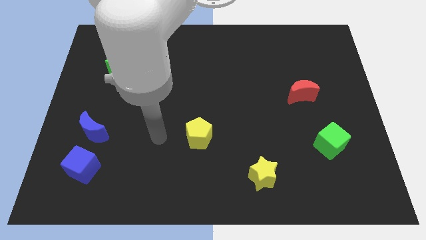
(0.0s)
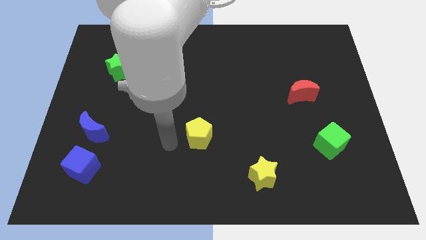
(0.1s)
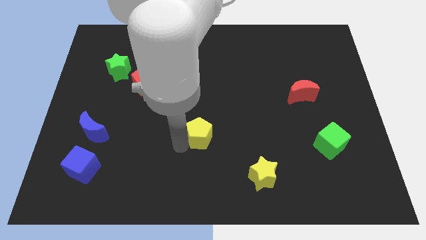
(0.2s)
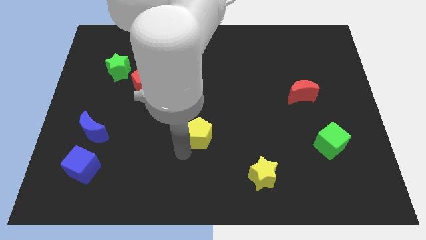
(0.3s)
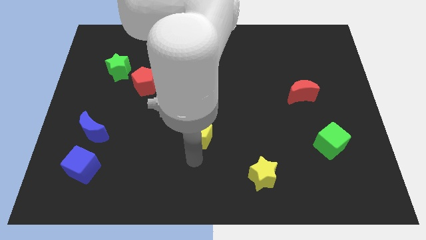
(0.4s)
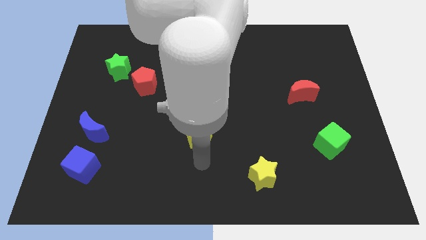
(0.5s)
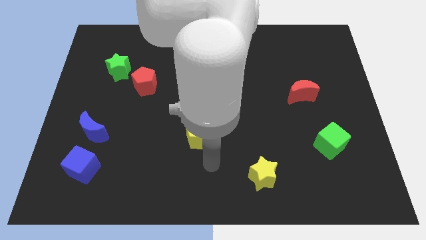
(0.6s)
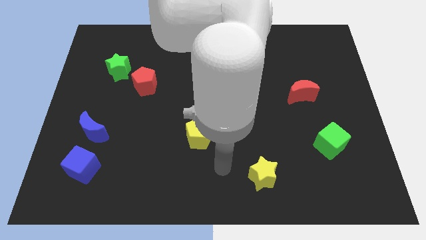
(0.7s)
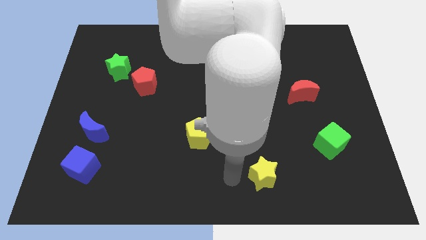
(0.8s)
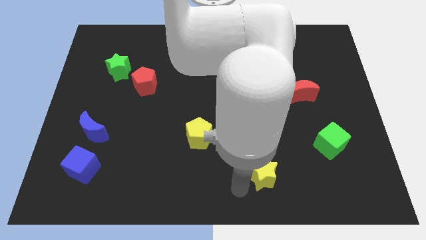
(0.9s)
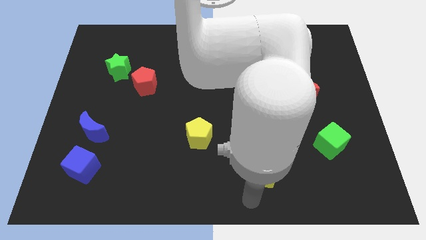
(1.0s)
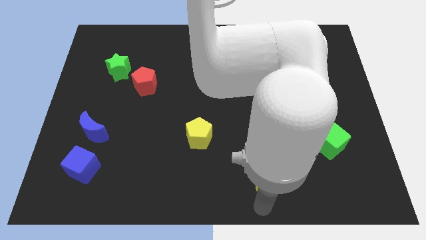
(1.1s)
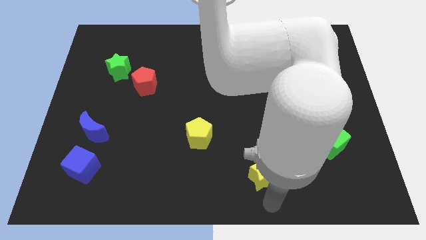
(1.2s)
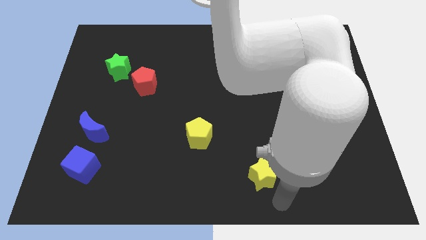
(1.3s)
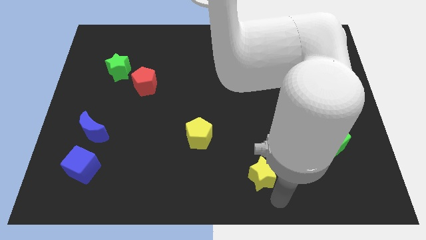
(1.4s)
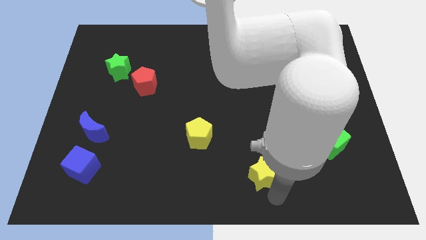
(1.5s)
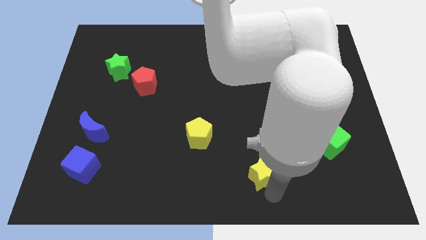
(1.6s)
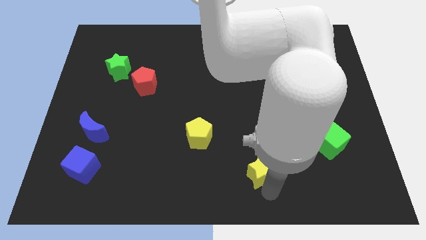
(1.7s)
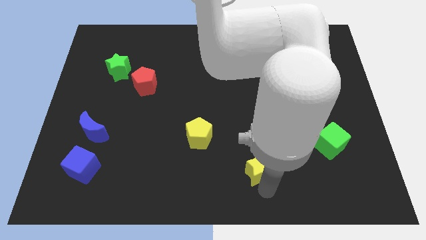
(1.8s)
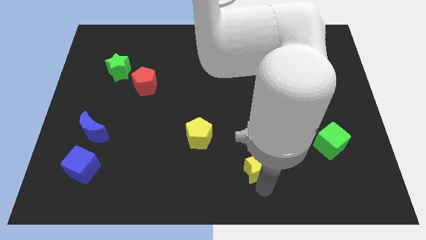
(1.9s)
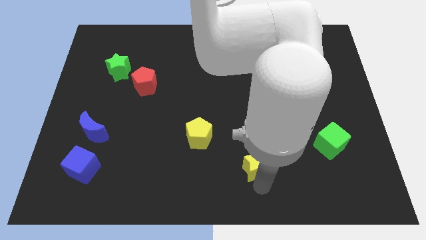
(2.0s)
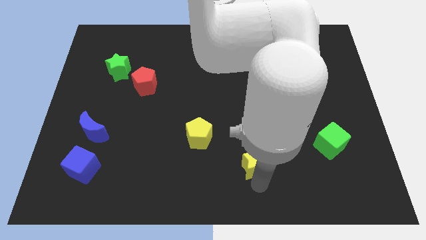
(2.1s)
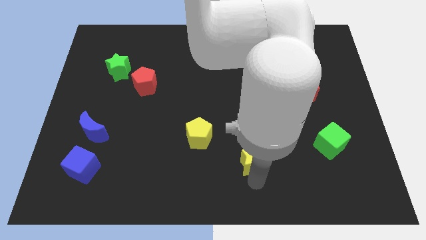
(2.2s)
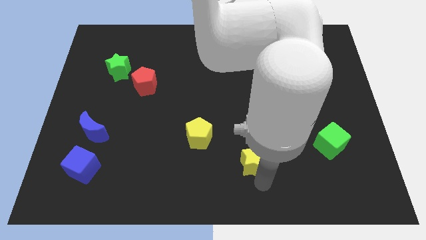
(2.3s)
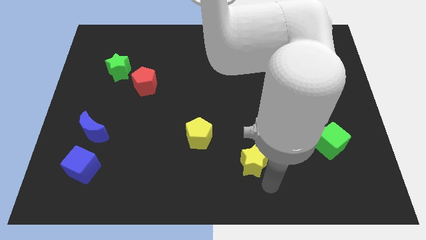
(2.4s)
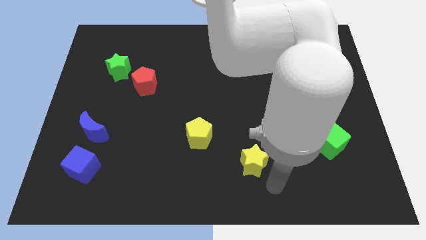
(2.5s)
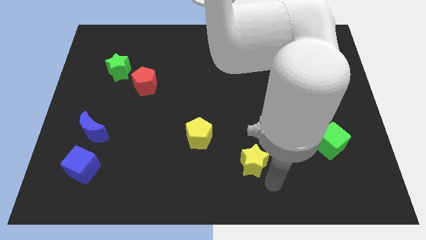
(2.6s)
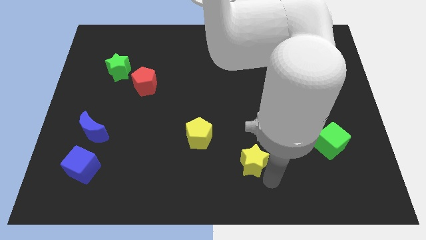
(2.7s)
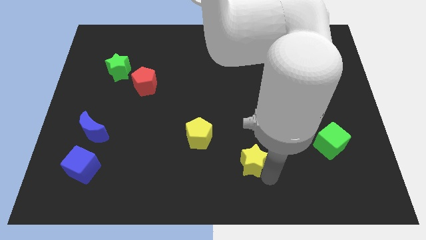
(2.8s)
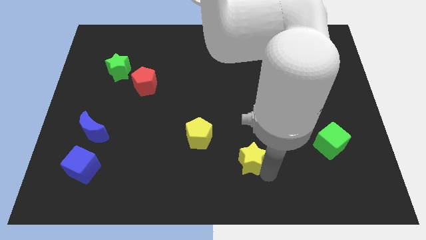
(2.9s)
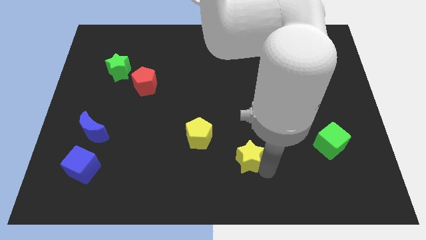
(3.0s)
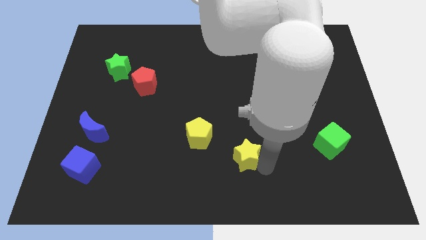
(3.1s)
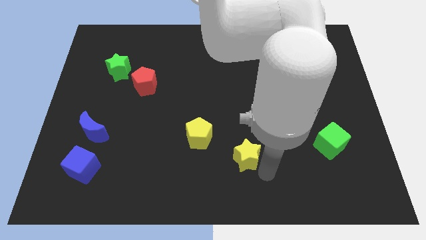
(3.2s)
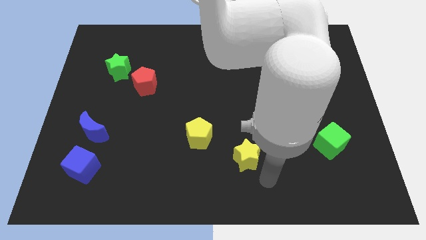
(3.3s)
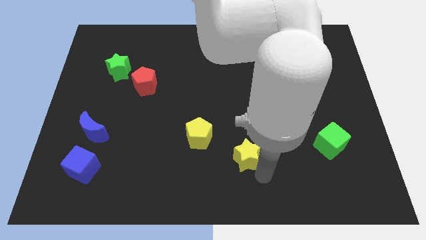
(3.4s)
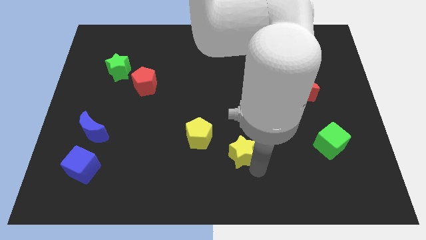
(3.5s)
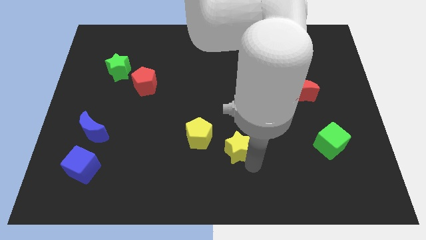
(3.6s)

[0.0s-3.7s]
slightly move the yellow star up and left diagonally

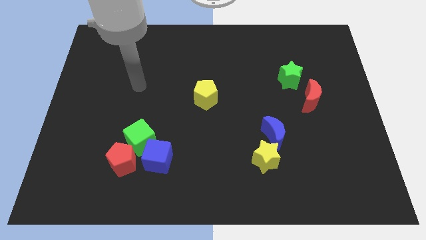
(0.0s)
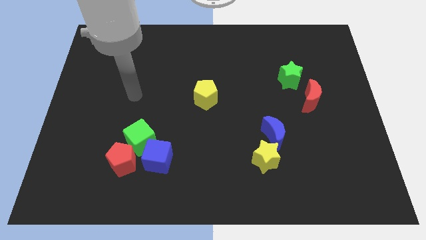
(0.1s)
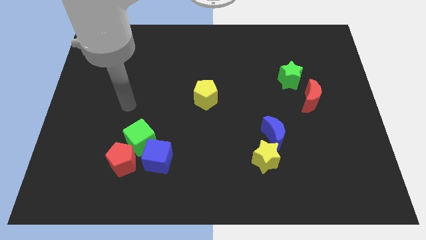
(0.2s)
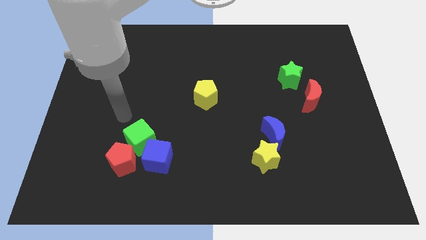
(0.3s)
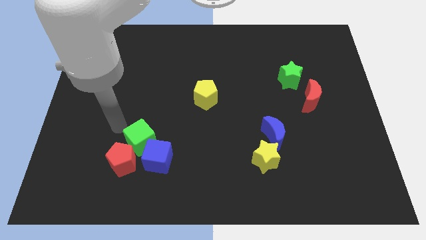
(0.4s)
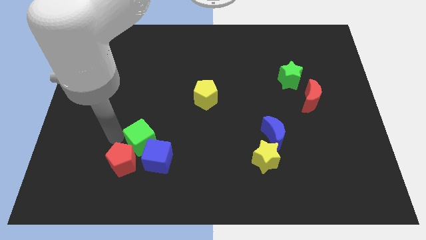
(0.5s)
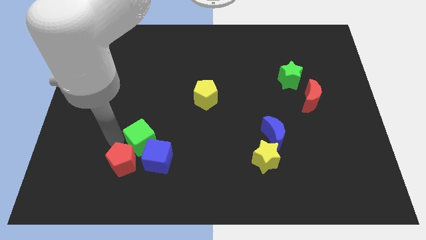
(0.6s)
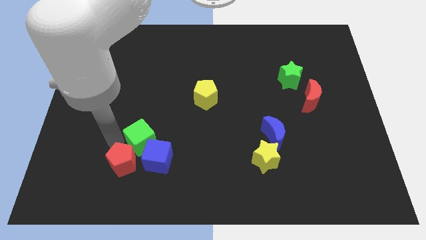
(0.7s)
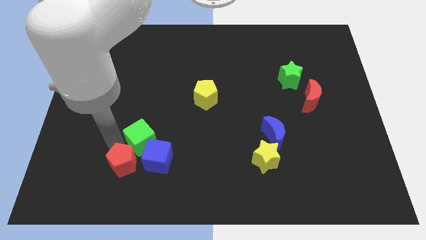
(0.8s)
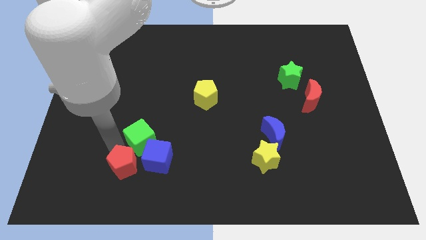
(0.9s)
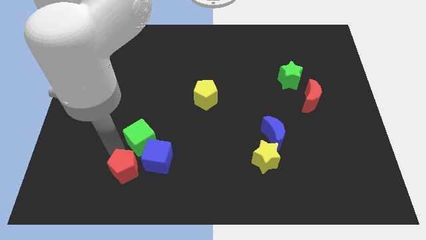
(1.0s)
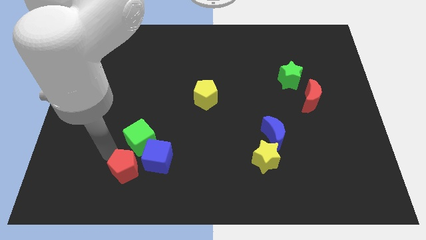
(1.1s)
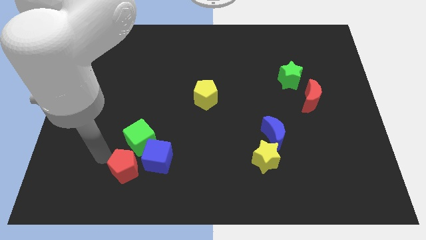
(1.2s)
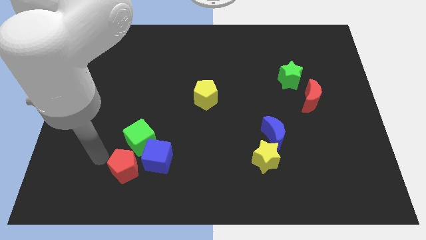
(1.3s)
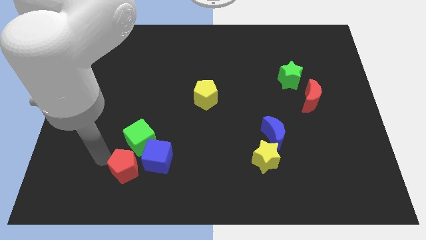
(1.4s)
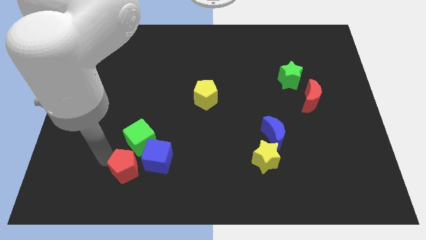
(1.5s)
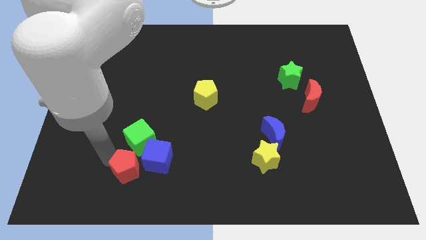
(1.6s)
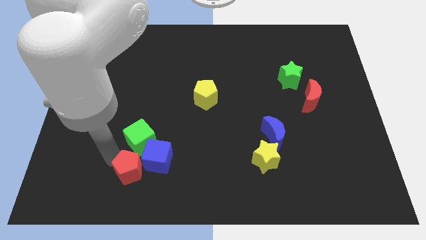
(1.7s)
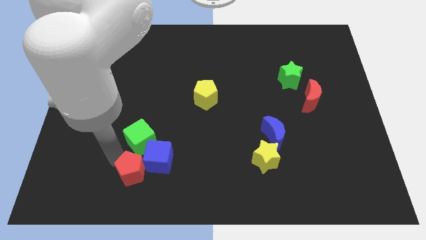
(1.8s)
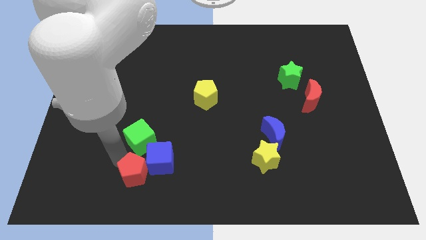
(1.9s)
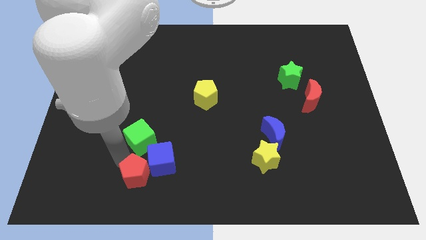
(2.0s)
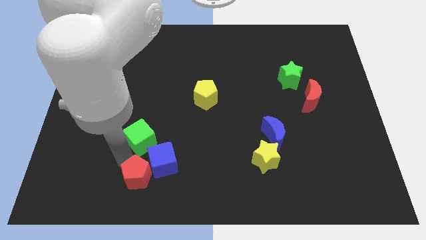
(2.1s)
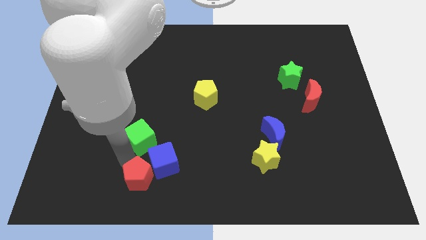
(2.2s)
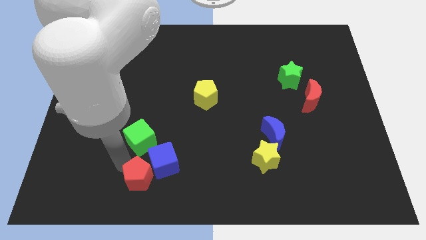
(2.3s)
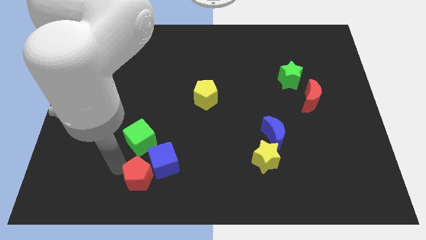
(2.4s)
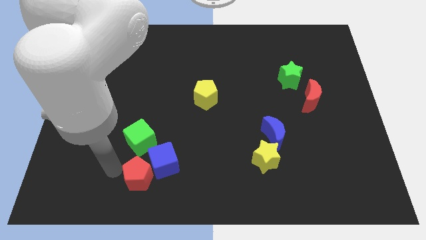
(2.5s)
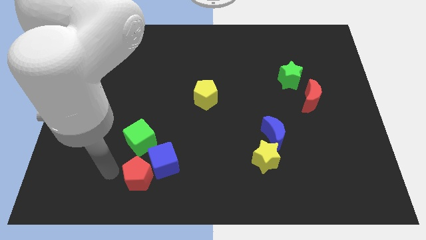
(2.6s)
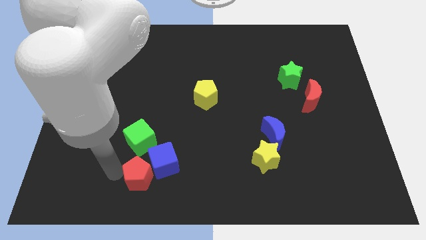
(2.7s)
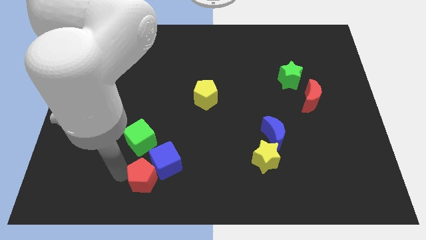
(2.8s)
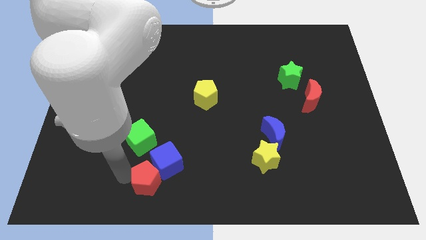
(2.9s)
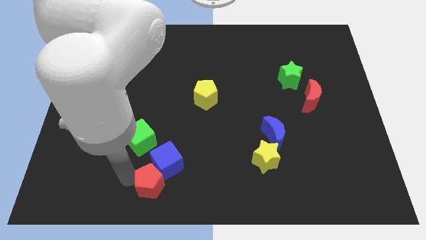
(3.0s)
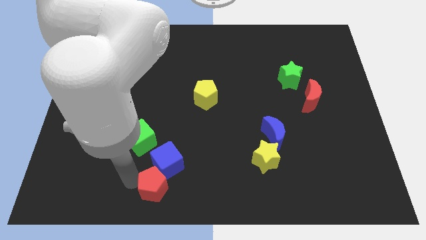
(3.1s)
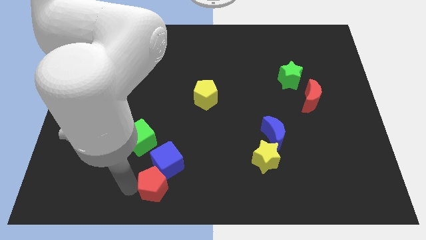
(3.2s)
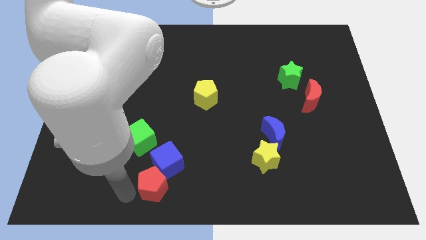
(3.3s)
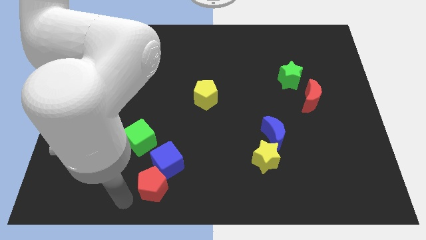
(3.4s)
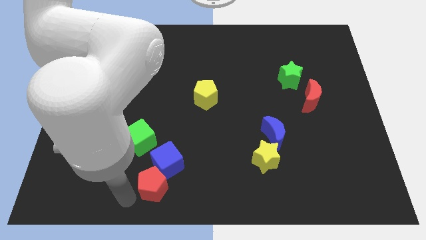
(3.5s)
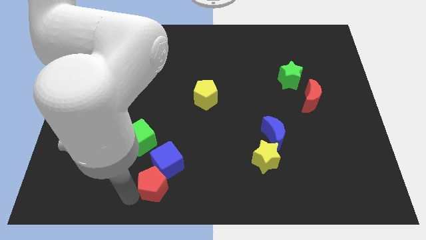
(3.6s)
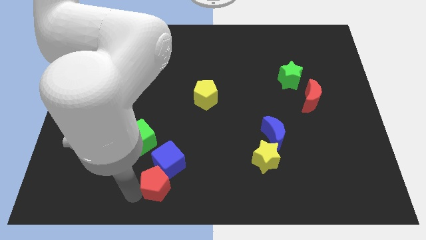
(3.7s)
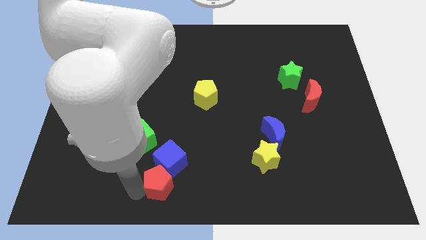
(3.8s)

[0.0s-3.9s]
slide the red pentagon a little right

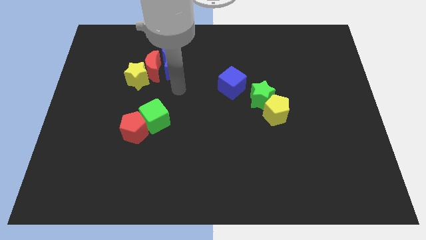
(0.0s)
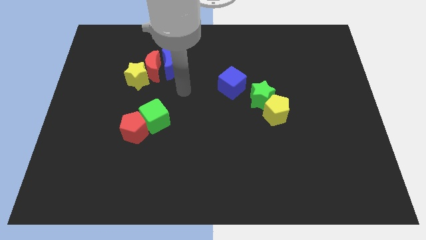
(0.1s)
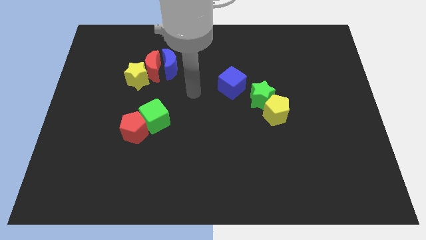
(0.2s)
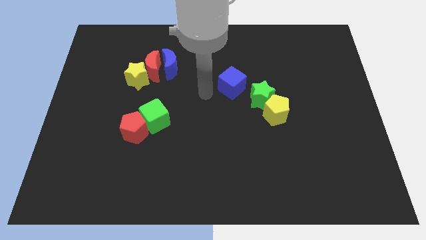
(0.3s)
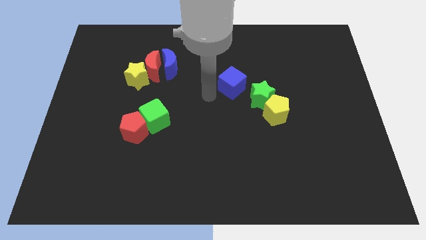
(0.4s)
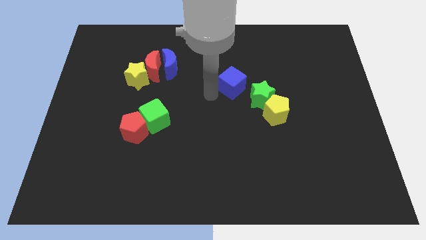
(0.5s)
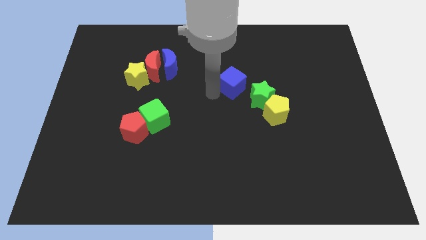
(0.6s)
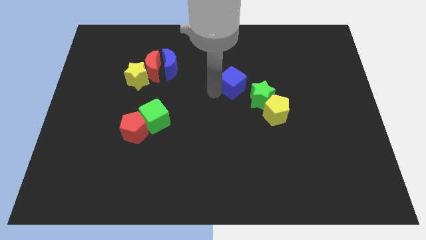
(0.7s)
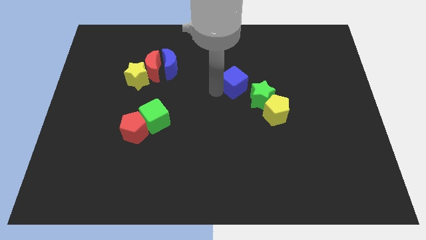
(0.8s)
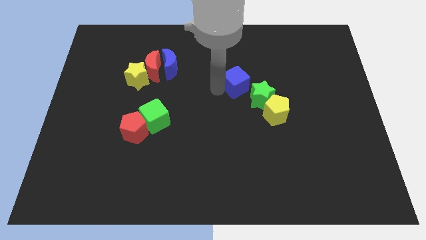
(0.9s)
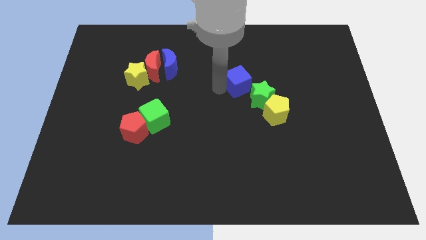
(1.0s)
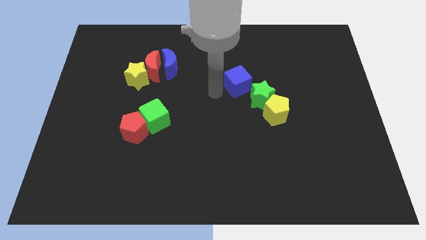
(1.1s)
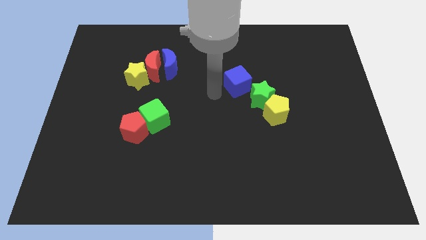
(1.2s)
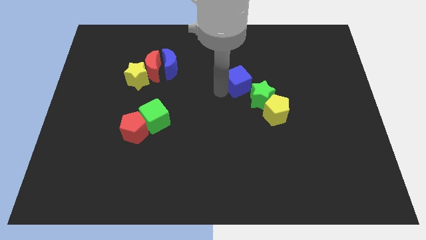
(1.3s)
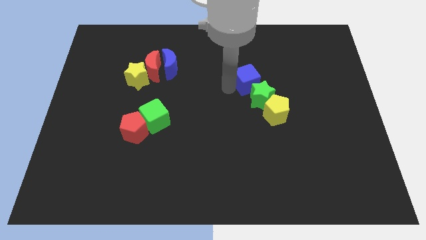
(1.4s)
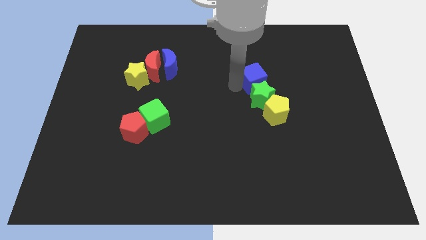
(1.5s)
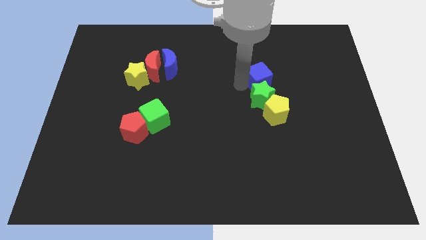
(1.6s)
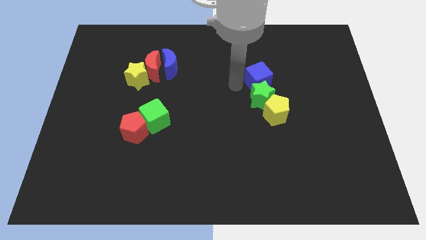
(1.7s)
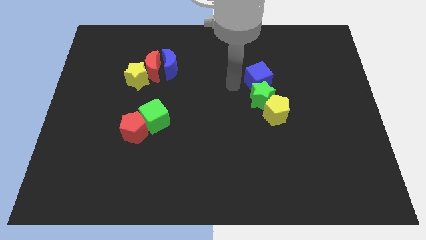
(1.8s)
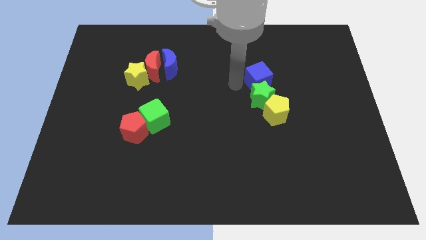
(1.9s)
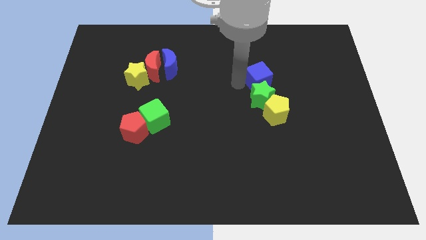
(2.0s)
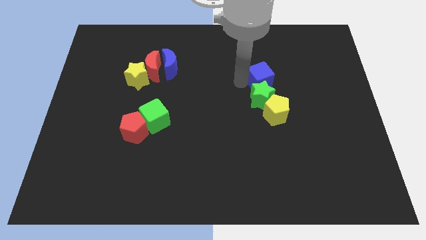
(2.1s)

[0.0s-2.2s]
move the blue cube a little right
